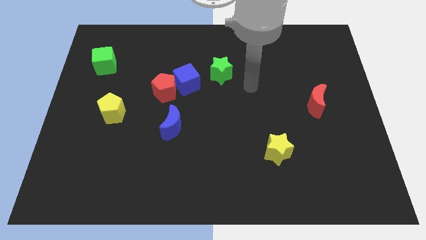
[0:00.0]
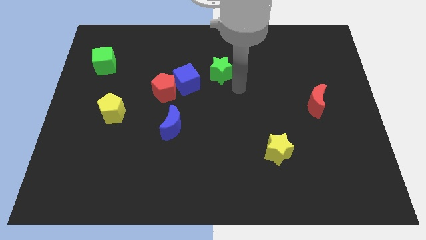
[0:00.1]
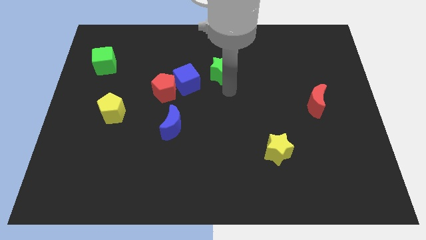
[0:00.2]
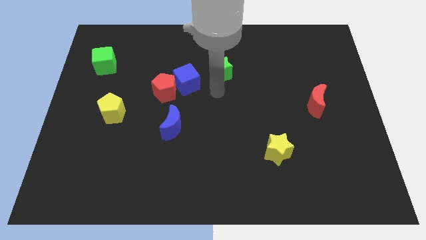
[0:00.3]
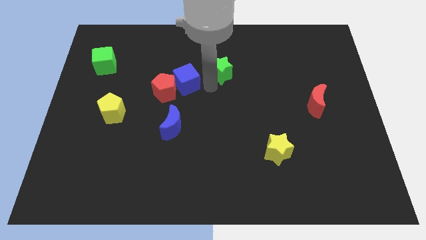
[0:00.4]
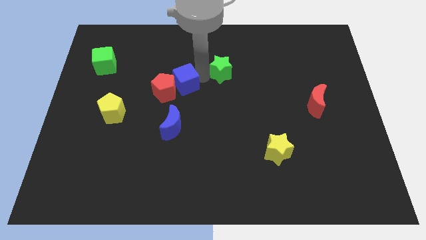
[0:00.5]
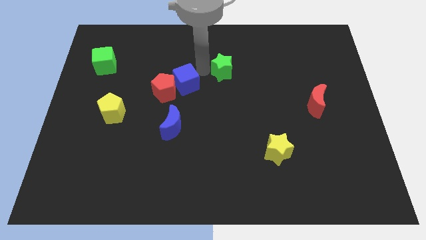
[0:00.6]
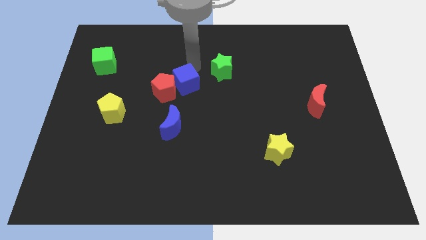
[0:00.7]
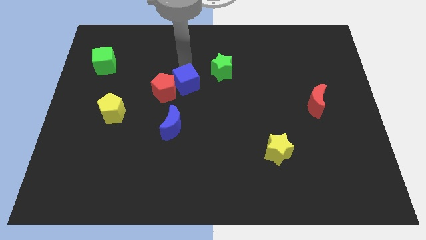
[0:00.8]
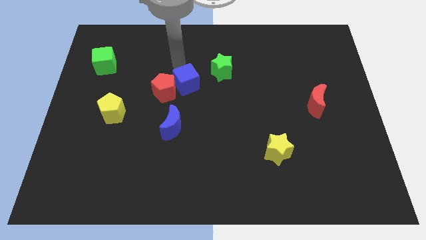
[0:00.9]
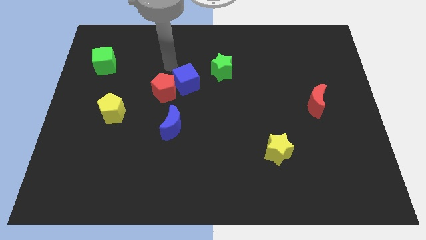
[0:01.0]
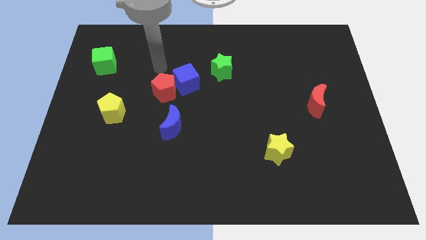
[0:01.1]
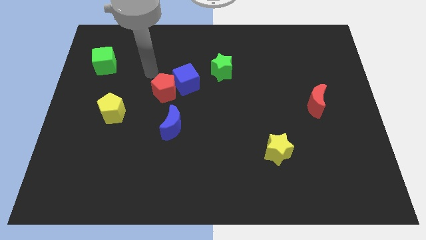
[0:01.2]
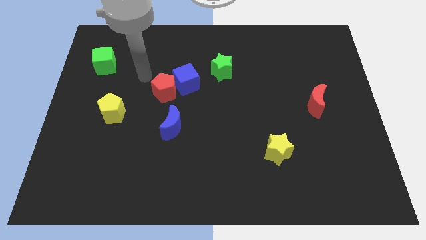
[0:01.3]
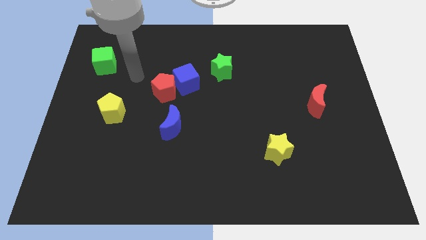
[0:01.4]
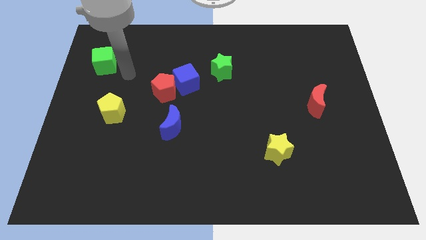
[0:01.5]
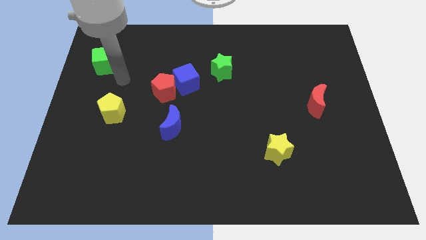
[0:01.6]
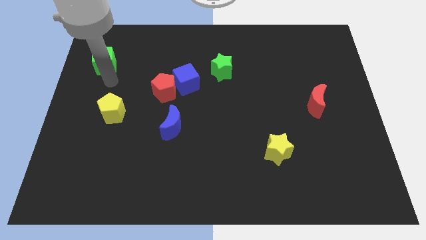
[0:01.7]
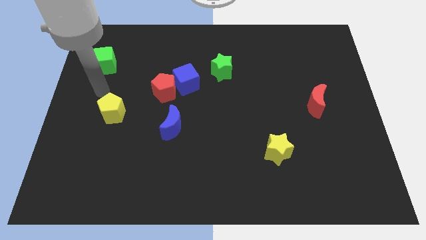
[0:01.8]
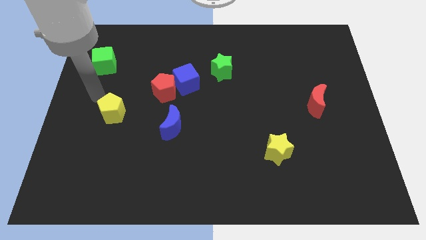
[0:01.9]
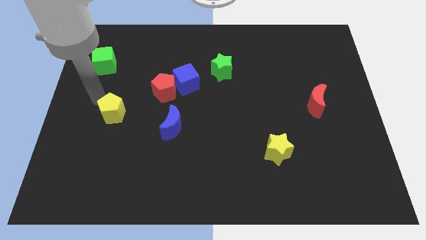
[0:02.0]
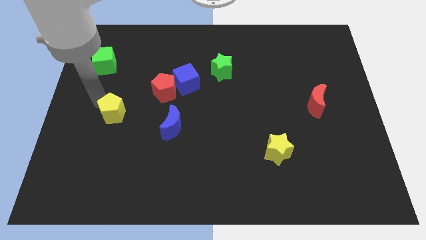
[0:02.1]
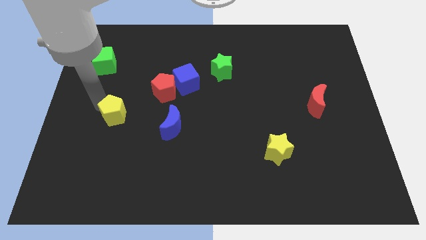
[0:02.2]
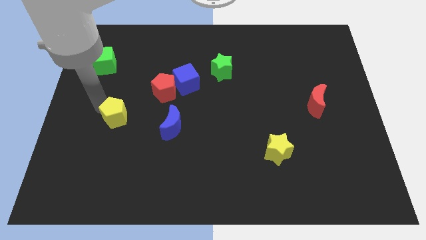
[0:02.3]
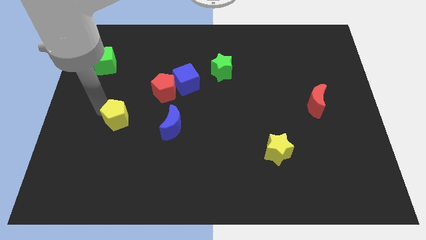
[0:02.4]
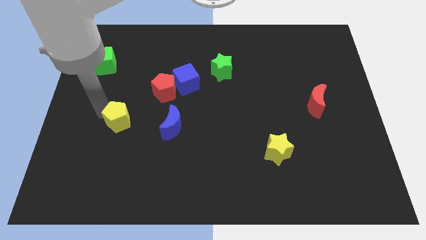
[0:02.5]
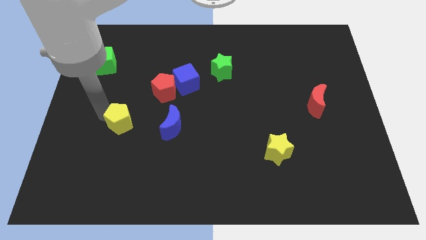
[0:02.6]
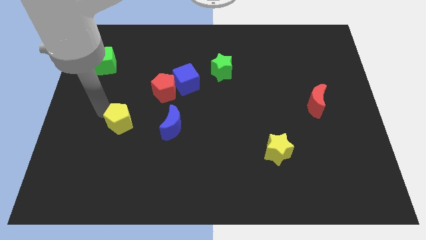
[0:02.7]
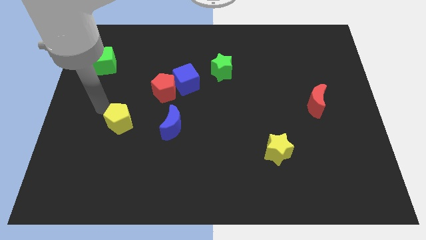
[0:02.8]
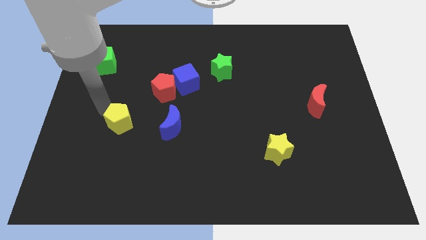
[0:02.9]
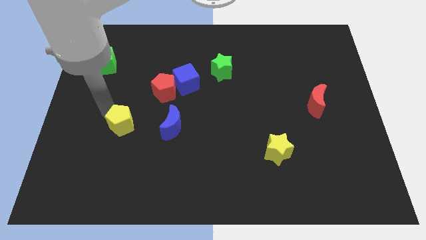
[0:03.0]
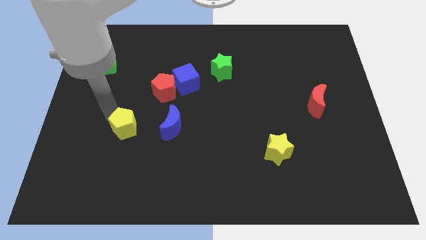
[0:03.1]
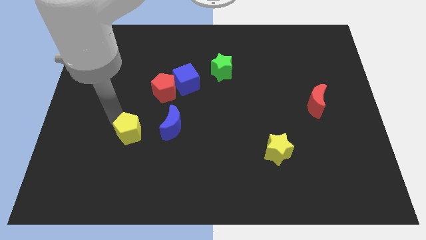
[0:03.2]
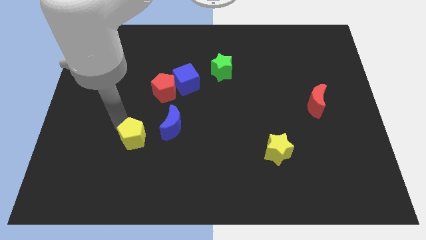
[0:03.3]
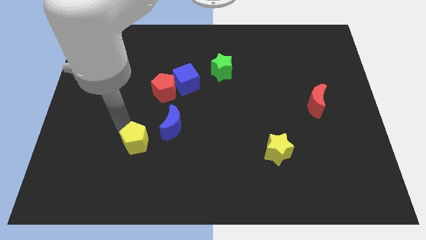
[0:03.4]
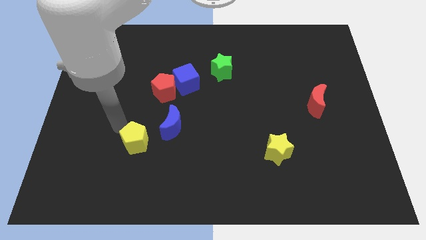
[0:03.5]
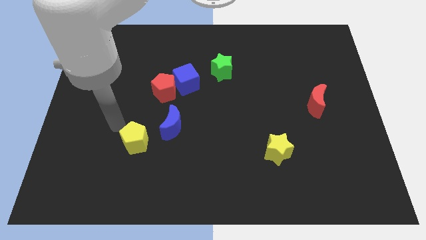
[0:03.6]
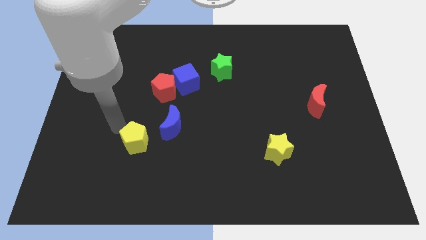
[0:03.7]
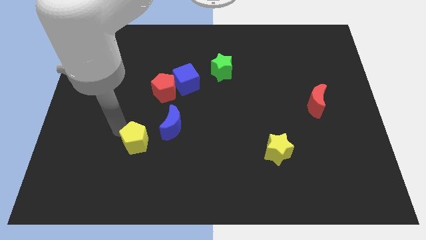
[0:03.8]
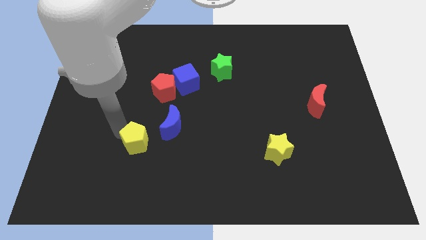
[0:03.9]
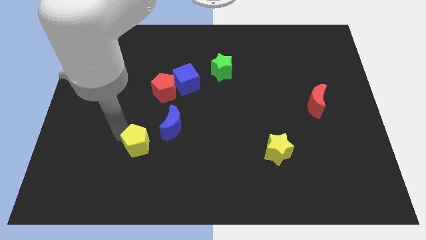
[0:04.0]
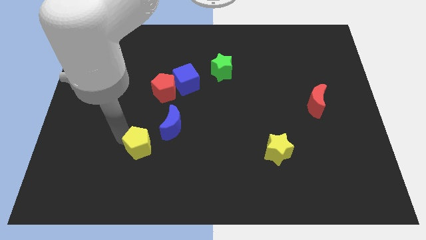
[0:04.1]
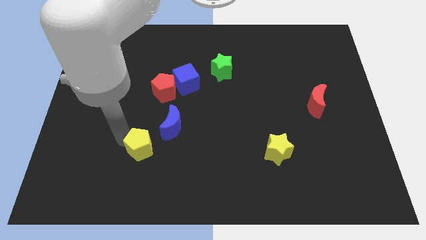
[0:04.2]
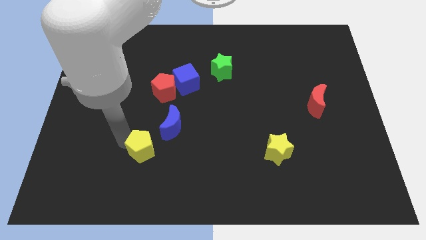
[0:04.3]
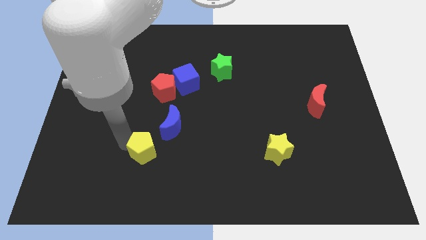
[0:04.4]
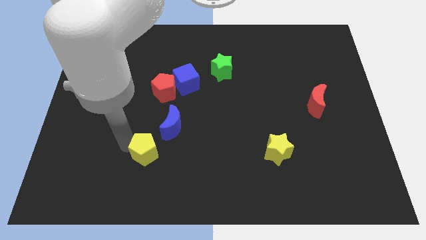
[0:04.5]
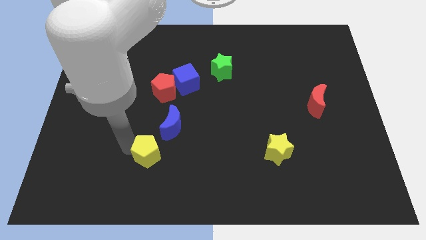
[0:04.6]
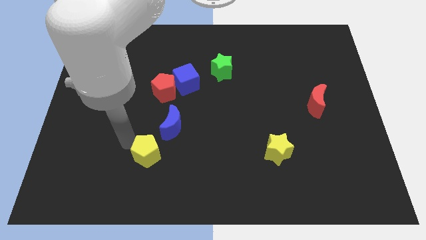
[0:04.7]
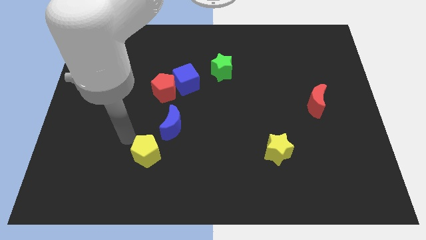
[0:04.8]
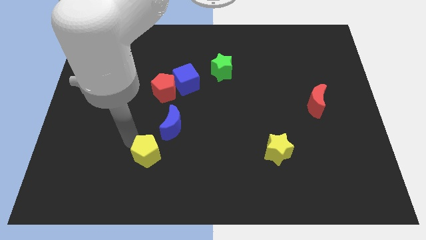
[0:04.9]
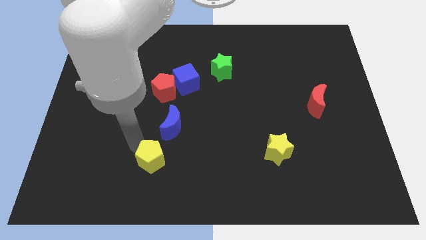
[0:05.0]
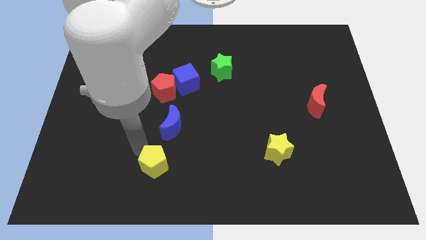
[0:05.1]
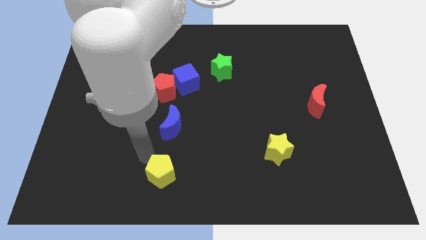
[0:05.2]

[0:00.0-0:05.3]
put the yellow pentagon to the bottom
